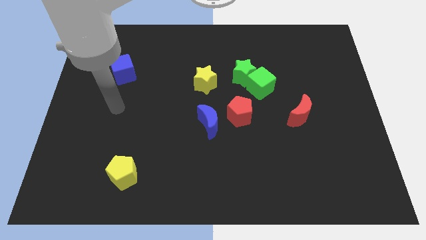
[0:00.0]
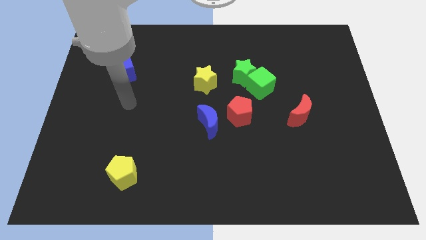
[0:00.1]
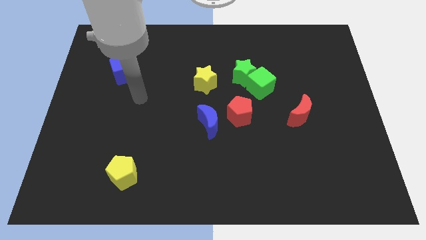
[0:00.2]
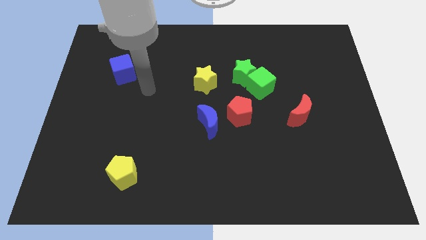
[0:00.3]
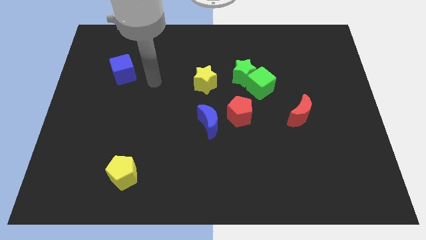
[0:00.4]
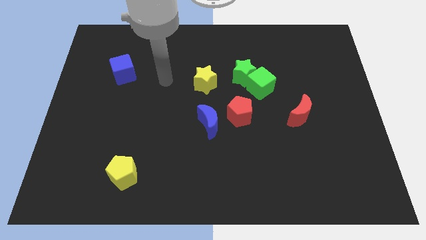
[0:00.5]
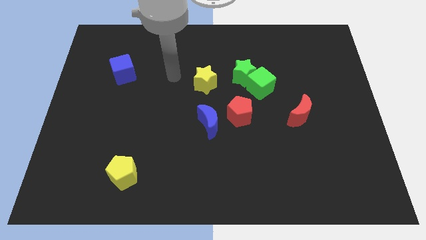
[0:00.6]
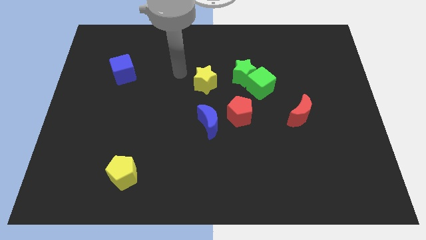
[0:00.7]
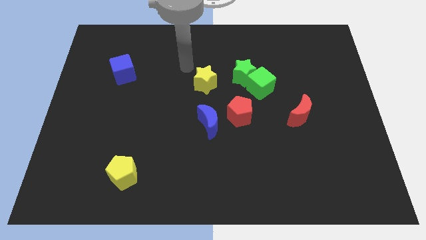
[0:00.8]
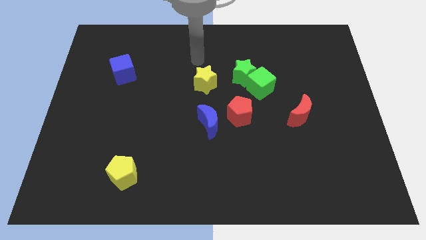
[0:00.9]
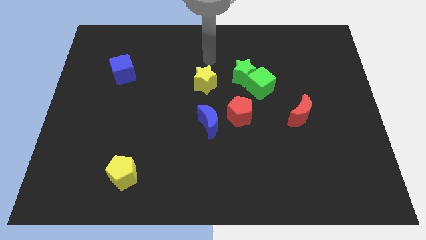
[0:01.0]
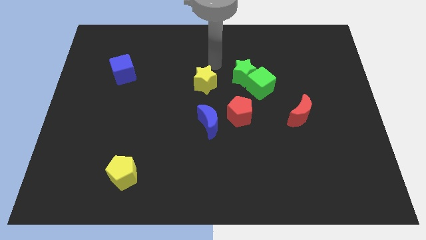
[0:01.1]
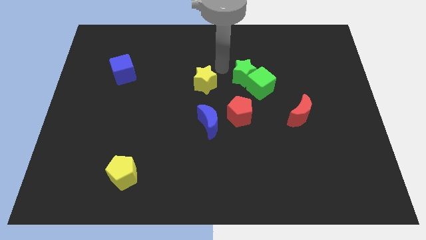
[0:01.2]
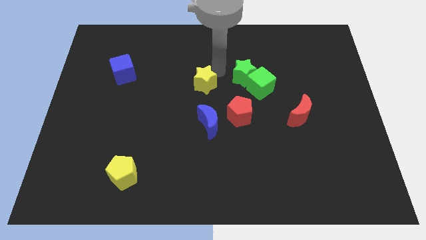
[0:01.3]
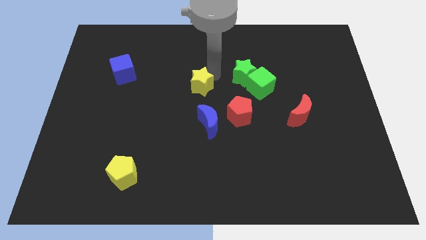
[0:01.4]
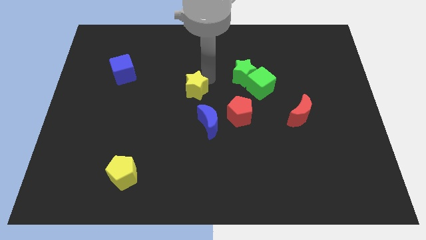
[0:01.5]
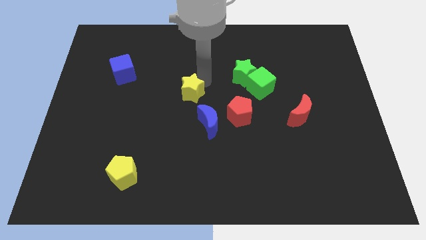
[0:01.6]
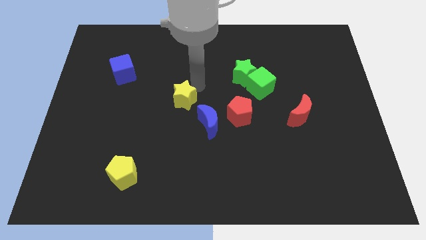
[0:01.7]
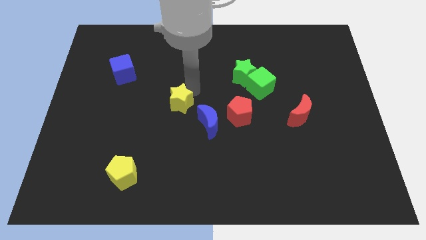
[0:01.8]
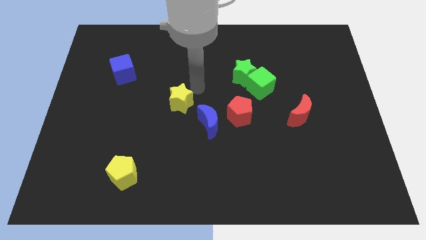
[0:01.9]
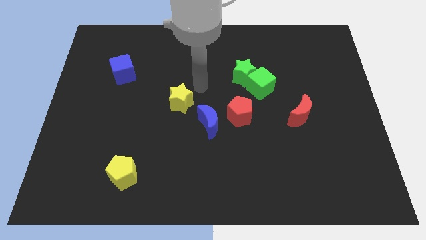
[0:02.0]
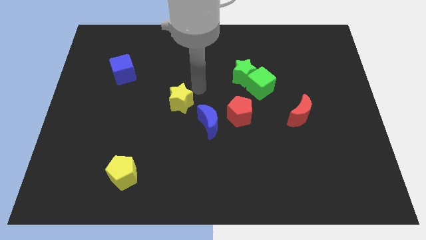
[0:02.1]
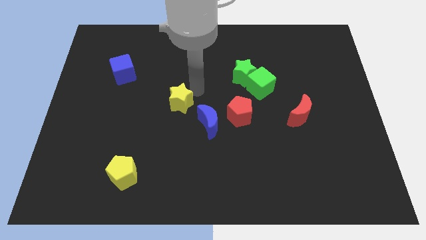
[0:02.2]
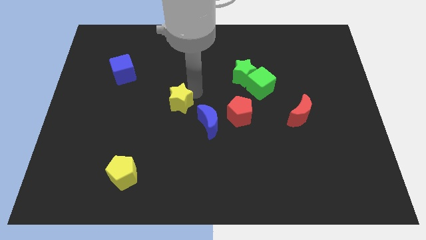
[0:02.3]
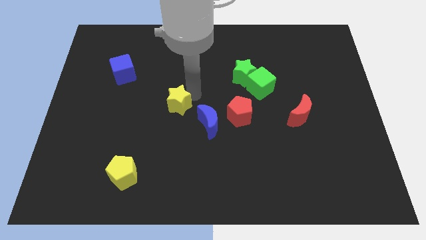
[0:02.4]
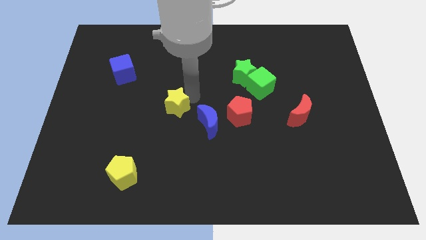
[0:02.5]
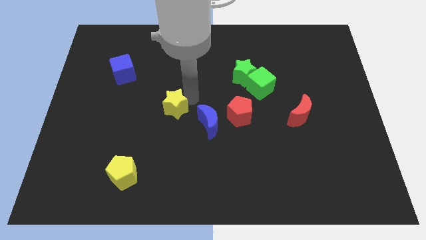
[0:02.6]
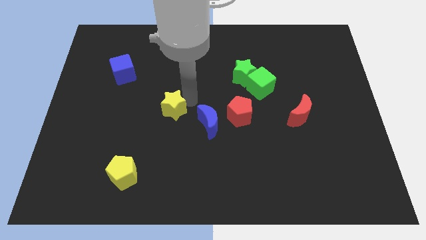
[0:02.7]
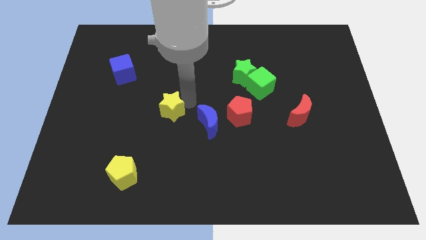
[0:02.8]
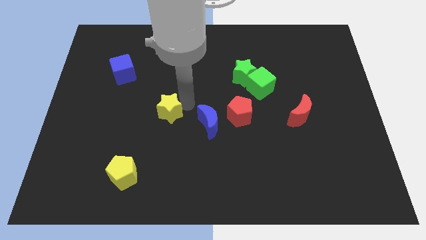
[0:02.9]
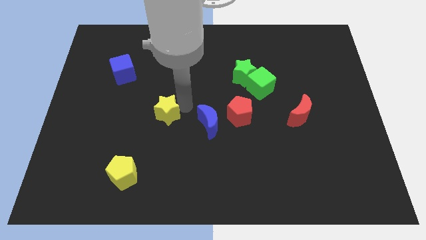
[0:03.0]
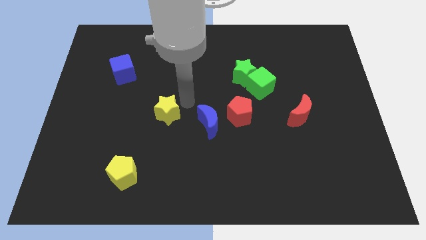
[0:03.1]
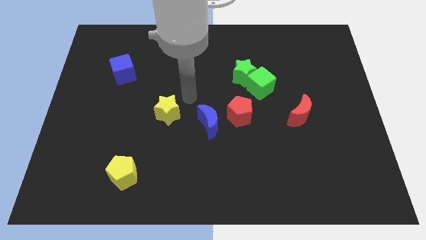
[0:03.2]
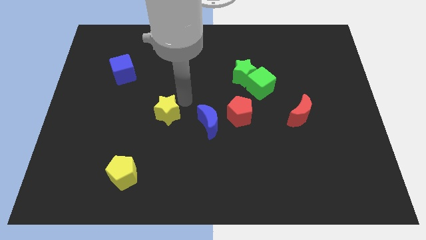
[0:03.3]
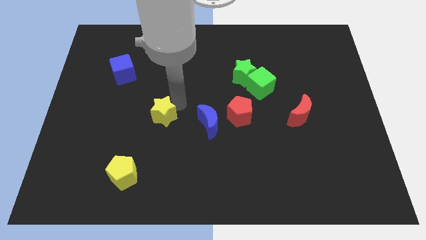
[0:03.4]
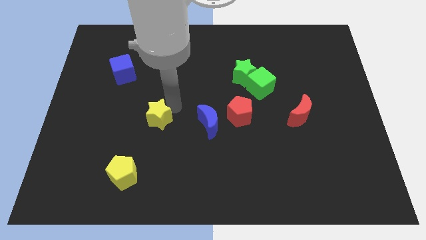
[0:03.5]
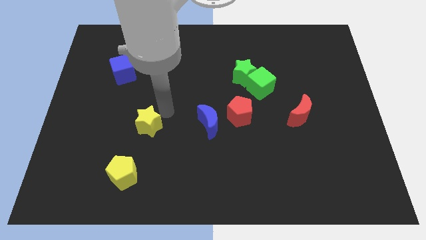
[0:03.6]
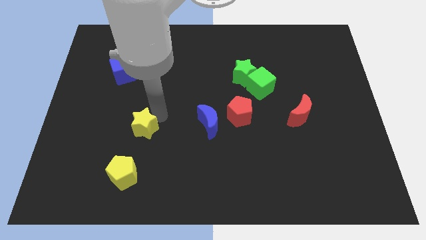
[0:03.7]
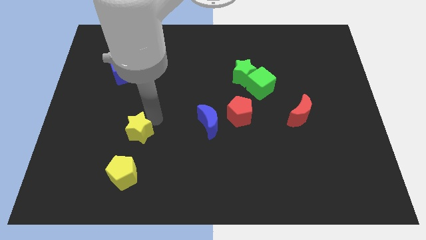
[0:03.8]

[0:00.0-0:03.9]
push the yellow star diagonally down and left

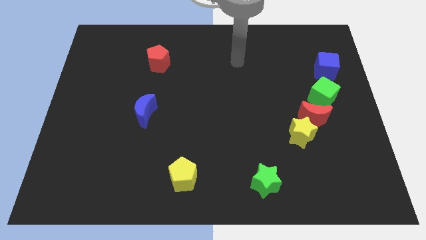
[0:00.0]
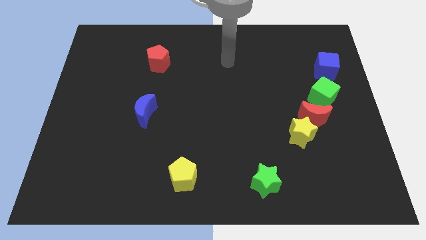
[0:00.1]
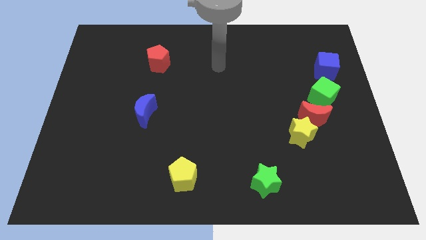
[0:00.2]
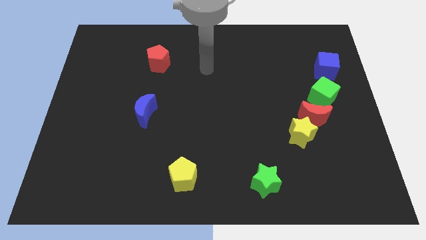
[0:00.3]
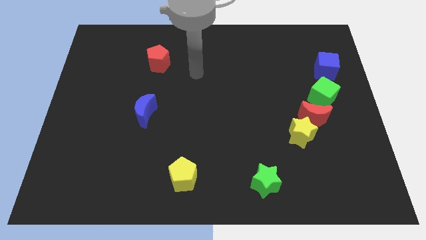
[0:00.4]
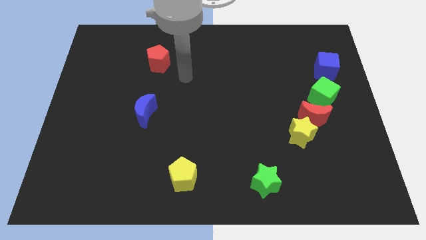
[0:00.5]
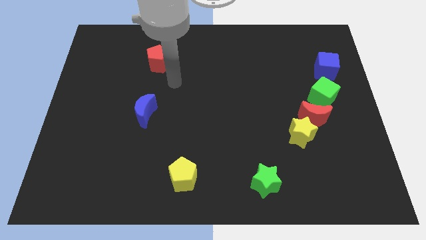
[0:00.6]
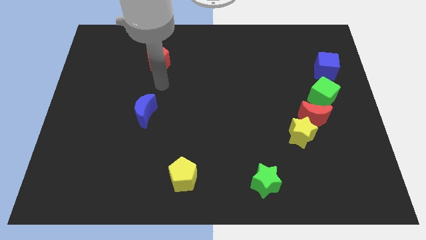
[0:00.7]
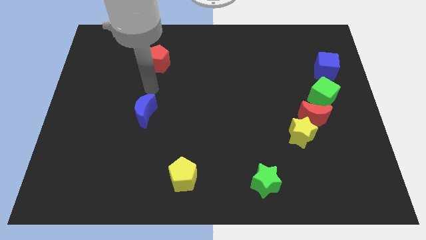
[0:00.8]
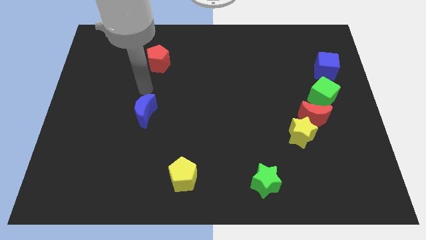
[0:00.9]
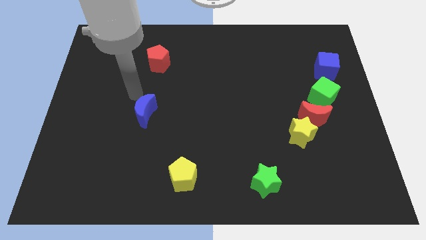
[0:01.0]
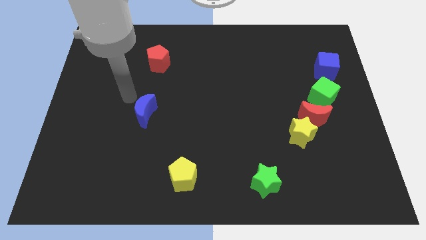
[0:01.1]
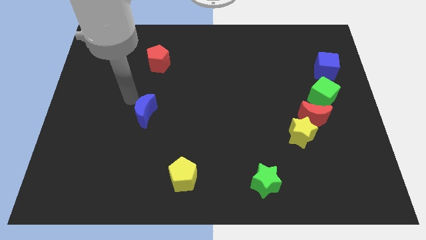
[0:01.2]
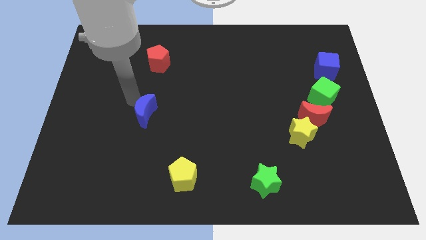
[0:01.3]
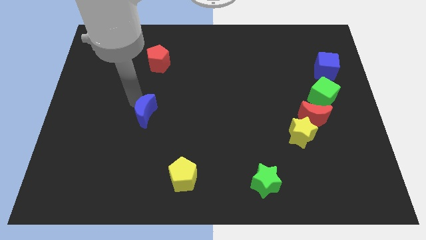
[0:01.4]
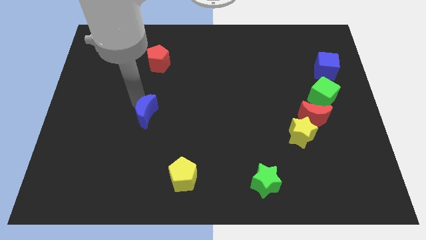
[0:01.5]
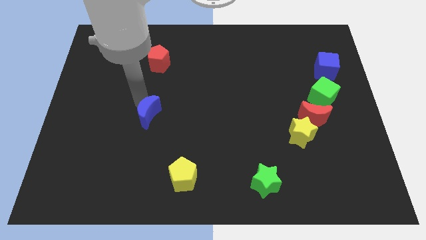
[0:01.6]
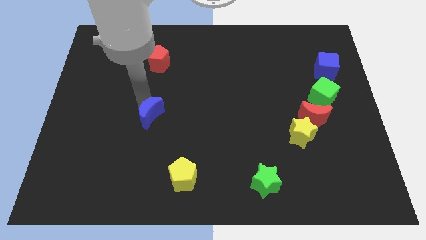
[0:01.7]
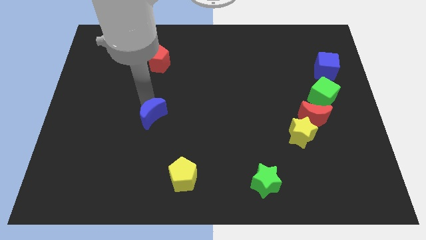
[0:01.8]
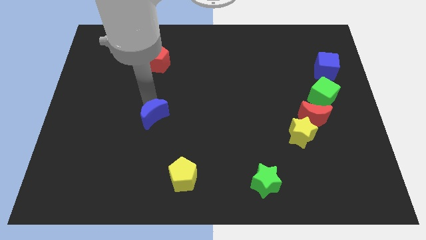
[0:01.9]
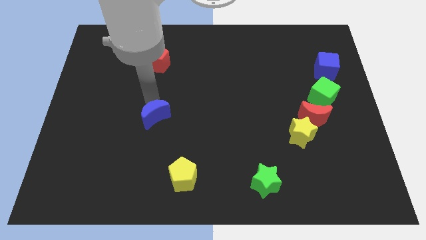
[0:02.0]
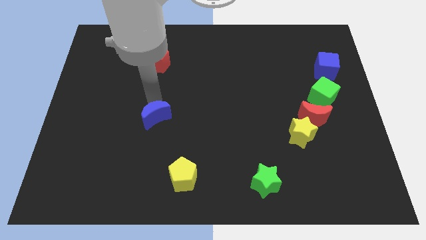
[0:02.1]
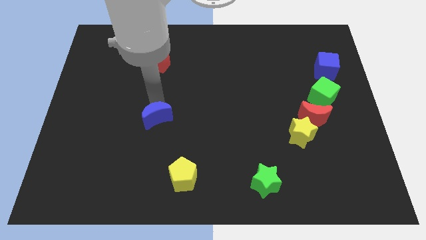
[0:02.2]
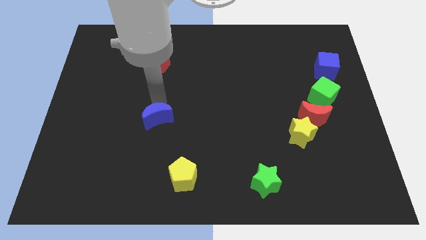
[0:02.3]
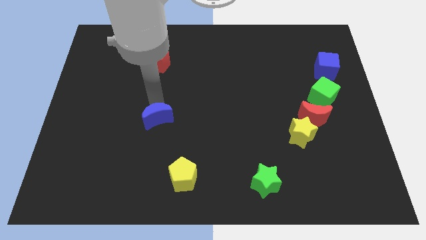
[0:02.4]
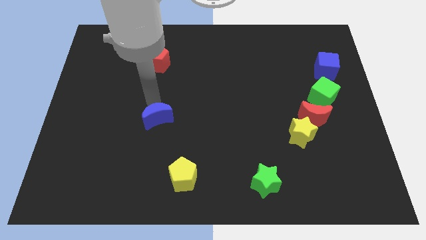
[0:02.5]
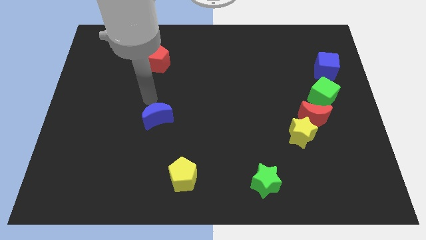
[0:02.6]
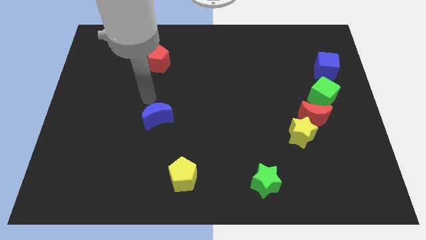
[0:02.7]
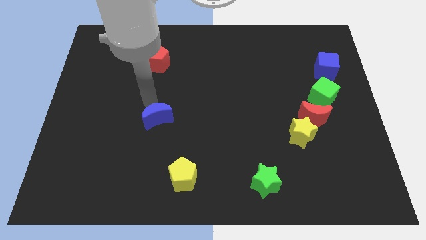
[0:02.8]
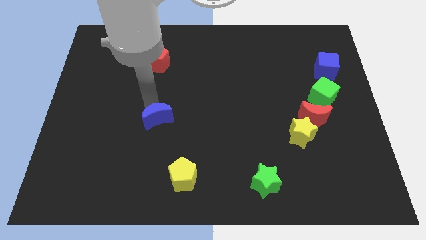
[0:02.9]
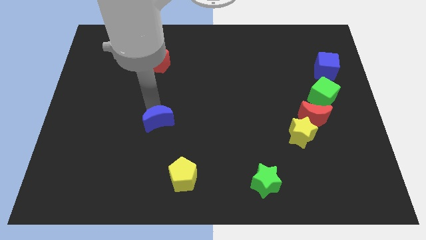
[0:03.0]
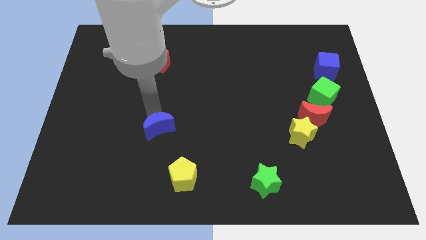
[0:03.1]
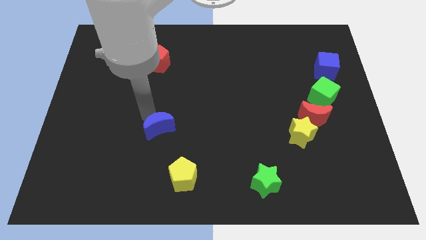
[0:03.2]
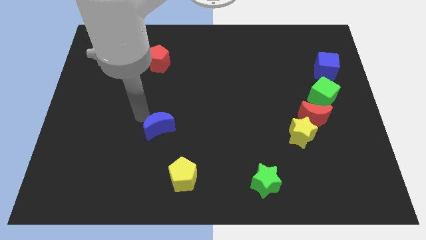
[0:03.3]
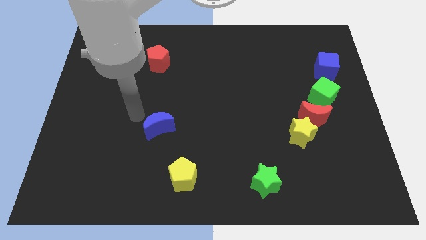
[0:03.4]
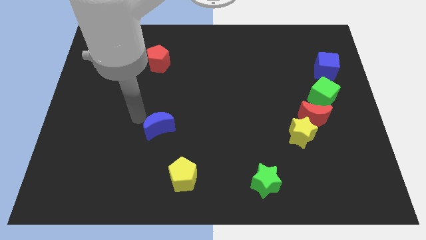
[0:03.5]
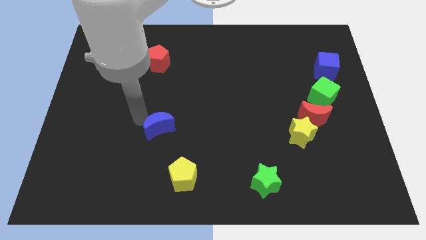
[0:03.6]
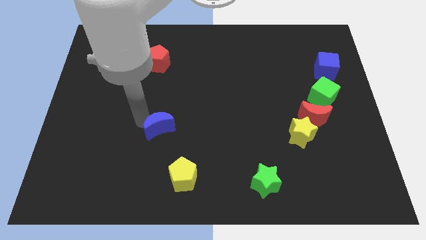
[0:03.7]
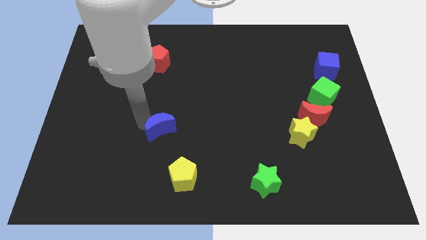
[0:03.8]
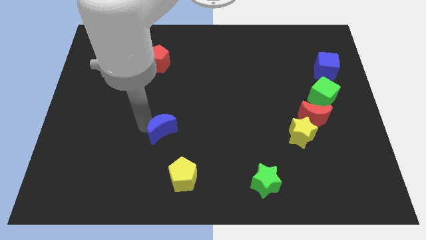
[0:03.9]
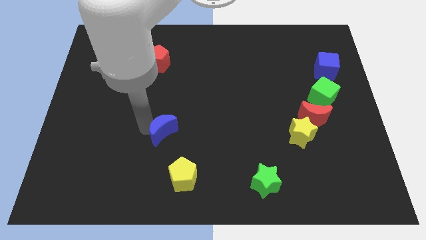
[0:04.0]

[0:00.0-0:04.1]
slightly push the blue moon downwards and to the right diagonally

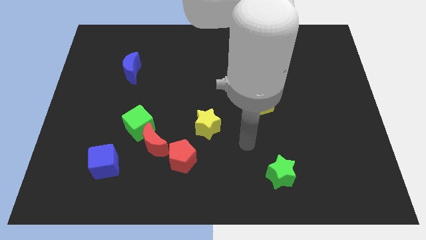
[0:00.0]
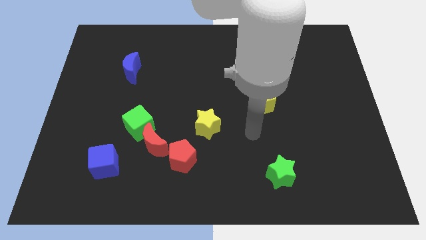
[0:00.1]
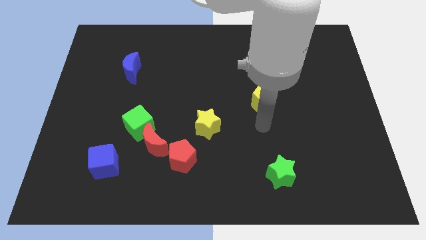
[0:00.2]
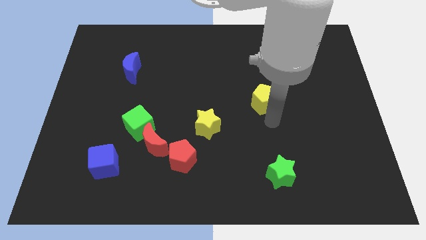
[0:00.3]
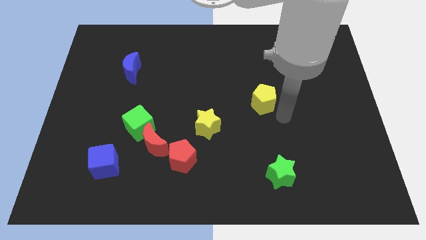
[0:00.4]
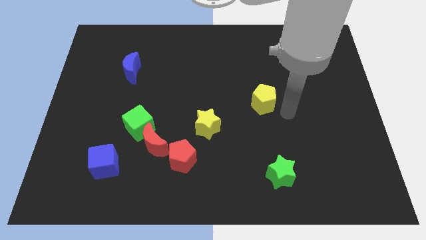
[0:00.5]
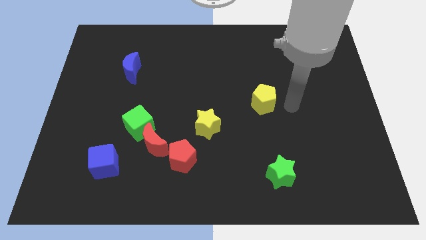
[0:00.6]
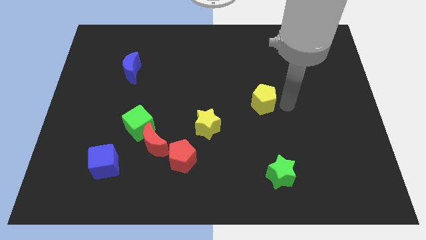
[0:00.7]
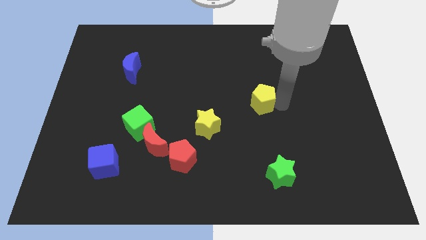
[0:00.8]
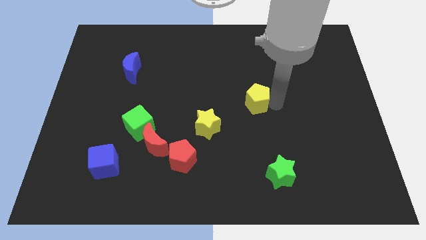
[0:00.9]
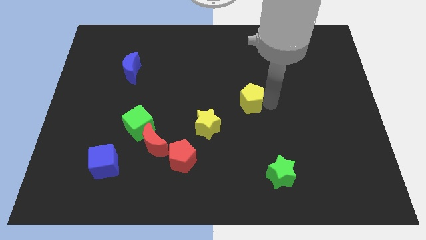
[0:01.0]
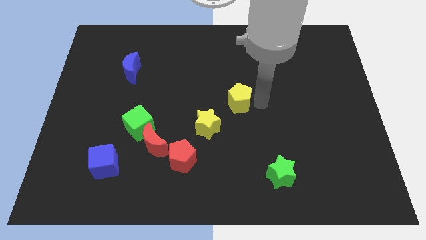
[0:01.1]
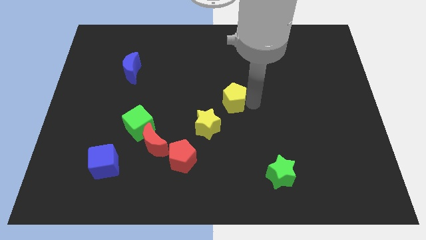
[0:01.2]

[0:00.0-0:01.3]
slide the yellow pentagon left a little bit
